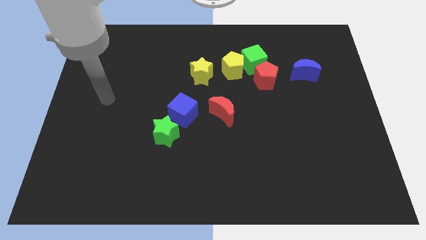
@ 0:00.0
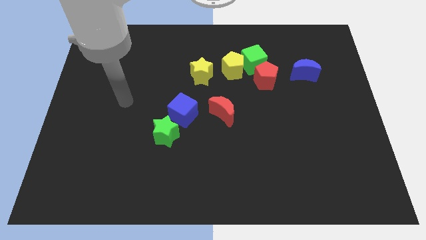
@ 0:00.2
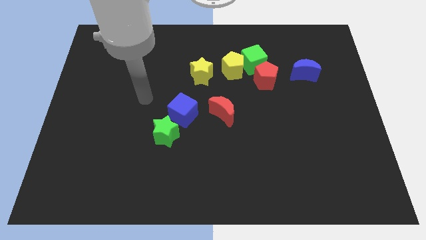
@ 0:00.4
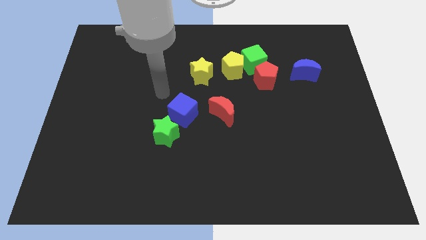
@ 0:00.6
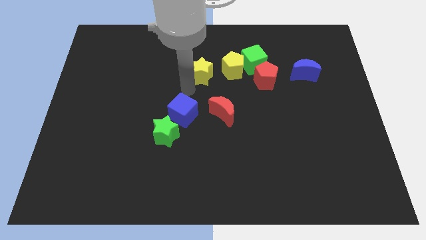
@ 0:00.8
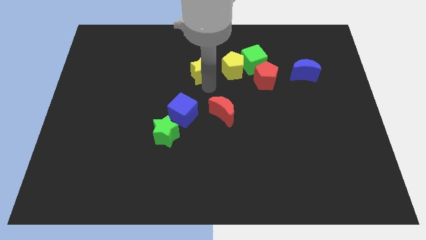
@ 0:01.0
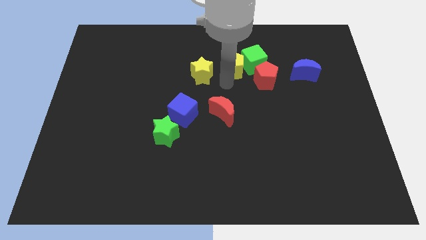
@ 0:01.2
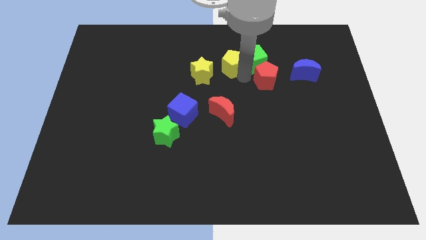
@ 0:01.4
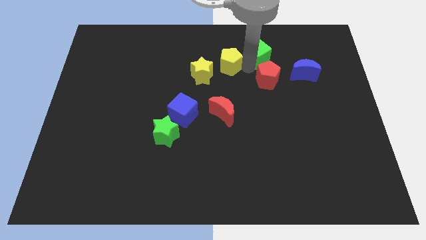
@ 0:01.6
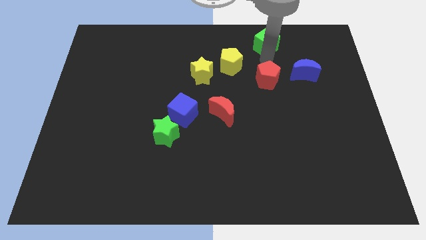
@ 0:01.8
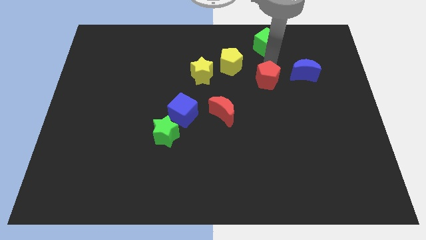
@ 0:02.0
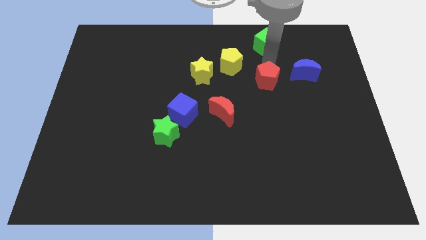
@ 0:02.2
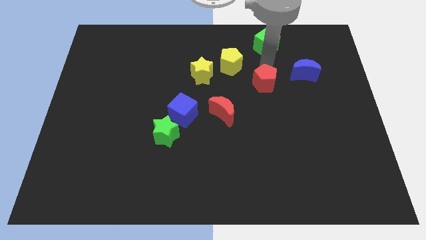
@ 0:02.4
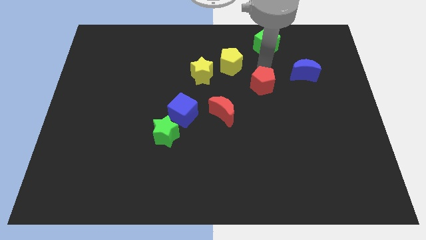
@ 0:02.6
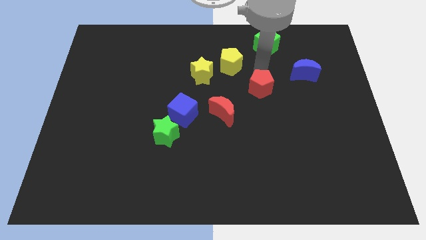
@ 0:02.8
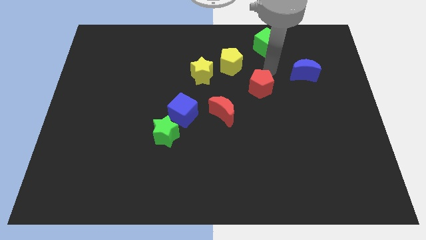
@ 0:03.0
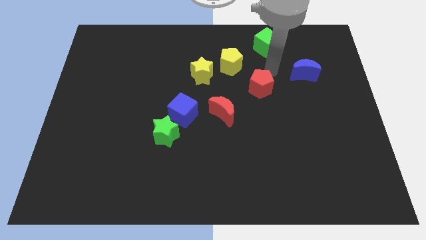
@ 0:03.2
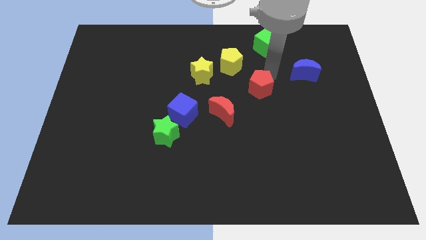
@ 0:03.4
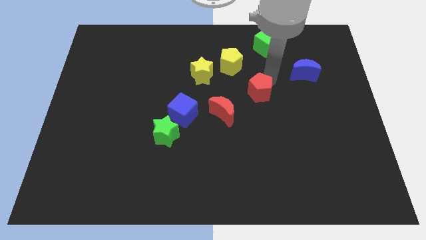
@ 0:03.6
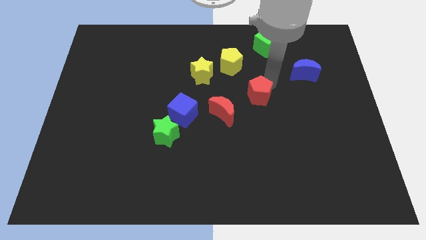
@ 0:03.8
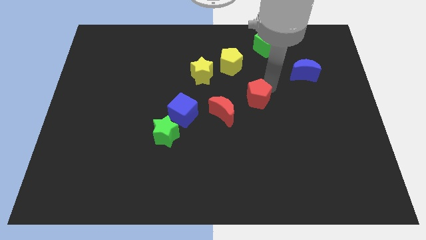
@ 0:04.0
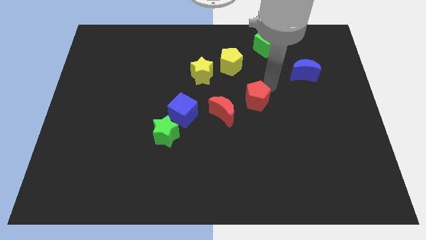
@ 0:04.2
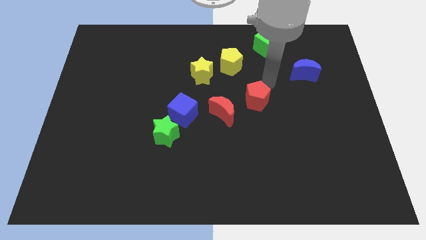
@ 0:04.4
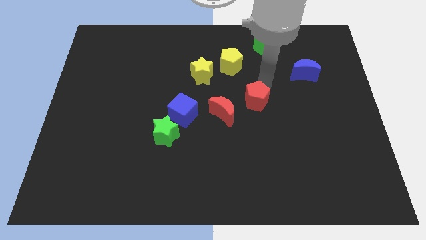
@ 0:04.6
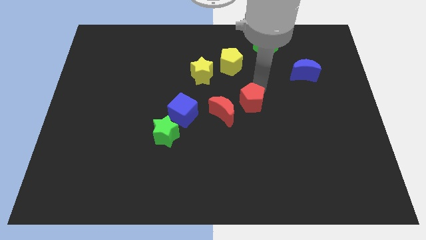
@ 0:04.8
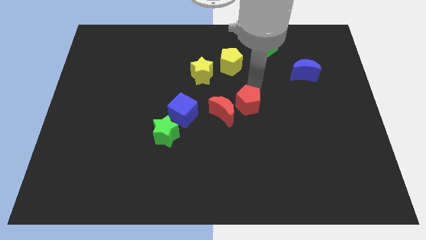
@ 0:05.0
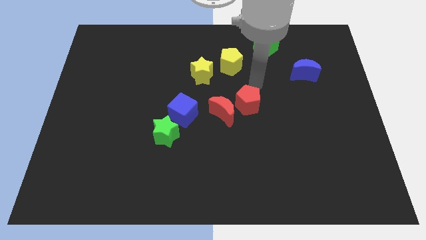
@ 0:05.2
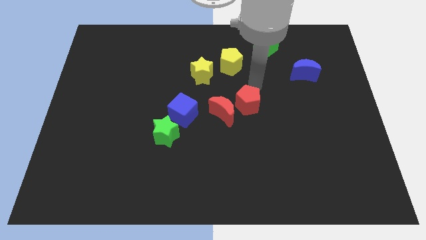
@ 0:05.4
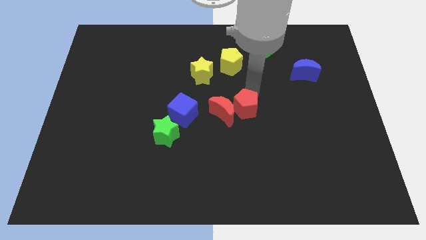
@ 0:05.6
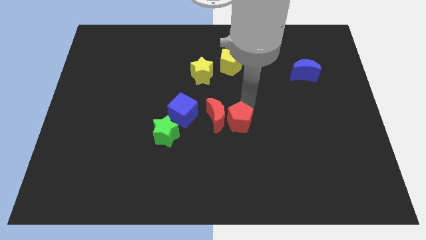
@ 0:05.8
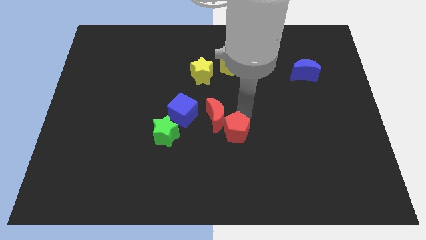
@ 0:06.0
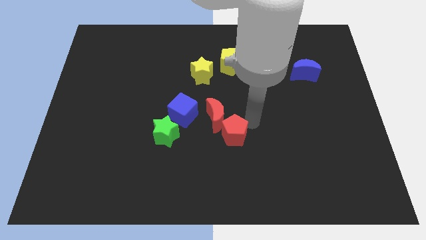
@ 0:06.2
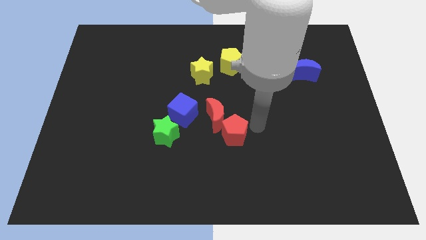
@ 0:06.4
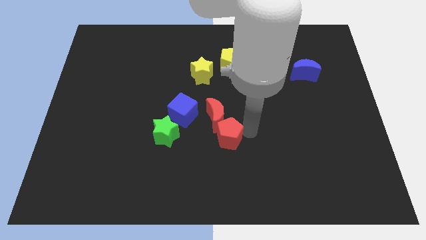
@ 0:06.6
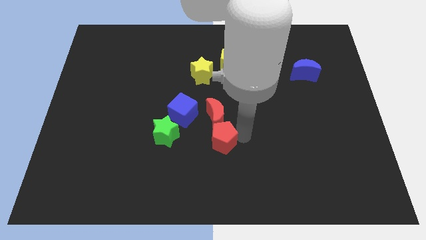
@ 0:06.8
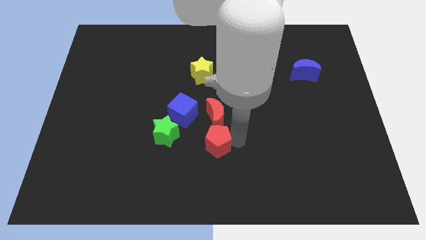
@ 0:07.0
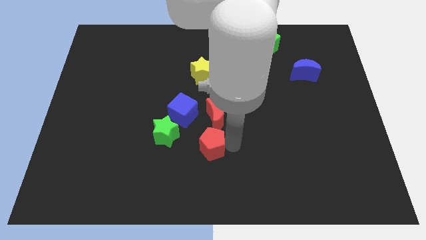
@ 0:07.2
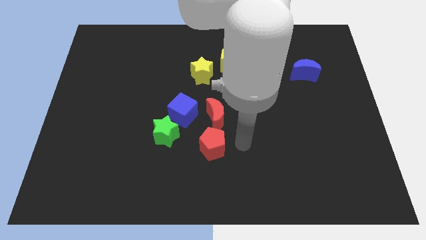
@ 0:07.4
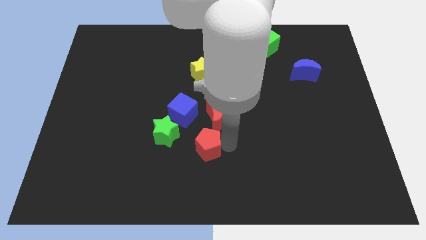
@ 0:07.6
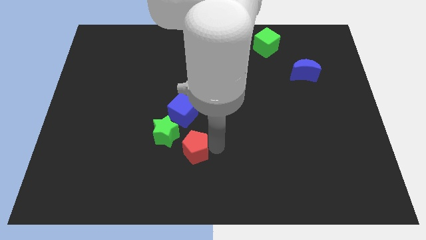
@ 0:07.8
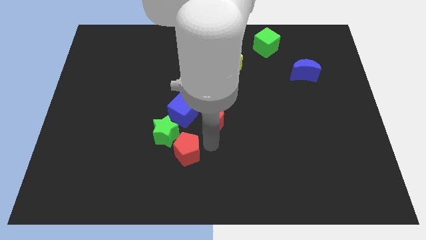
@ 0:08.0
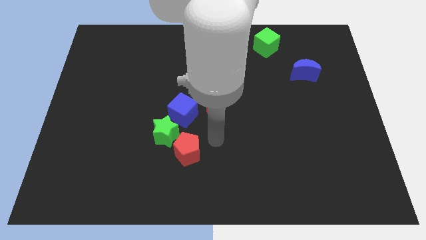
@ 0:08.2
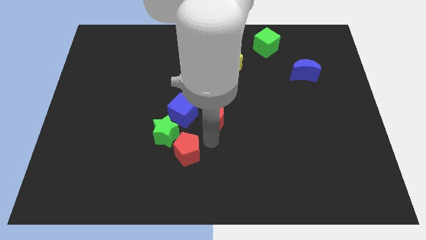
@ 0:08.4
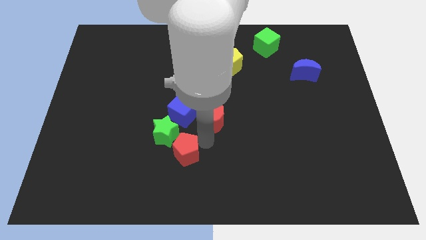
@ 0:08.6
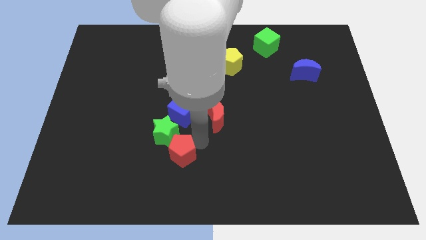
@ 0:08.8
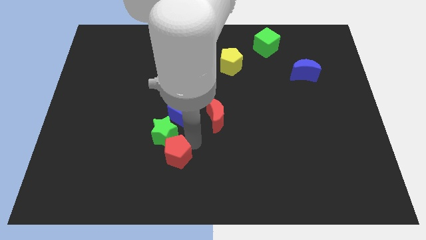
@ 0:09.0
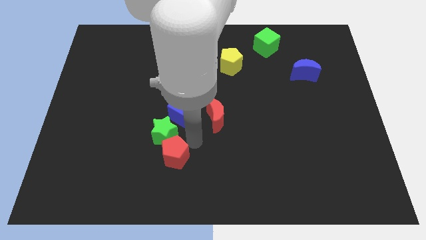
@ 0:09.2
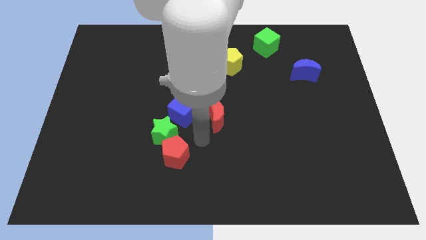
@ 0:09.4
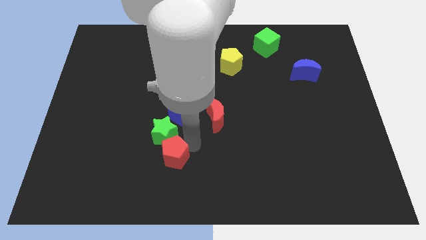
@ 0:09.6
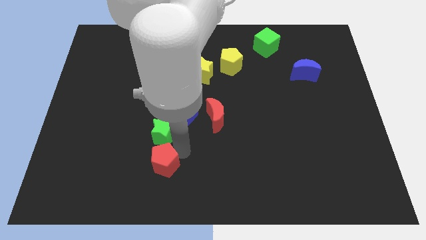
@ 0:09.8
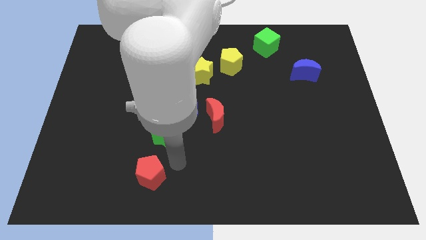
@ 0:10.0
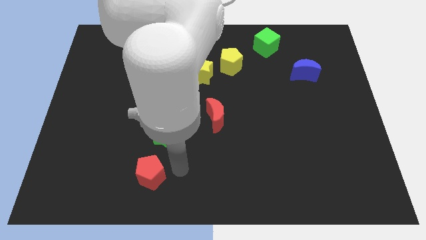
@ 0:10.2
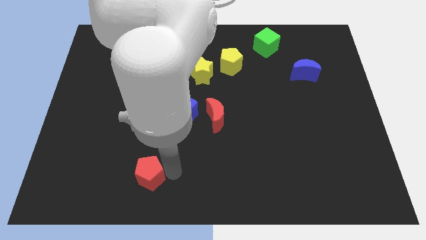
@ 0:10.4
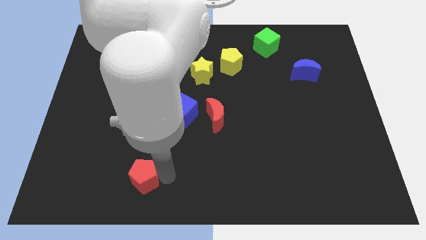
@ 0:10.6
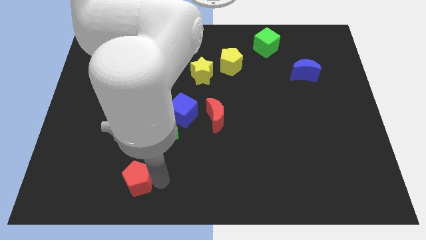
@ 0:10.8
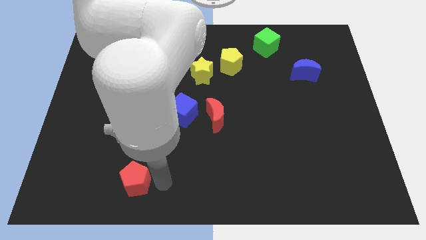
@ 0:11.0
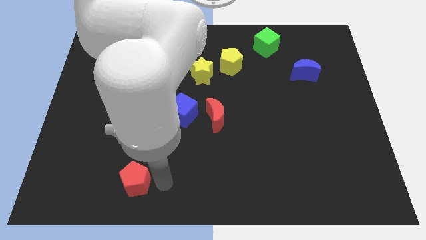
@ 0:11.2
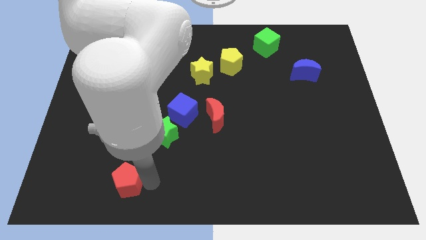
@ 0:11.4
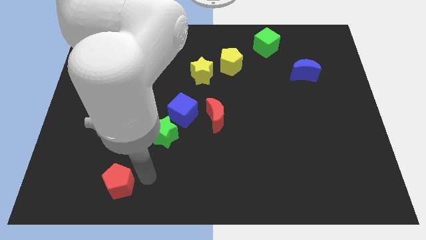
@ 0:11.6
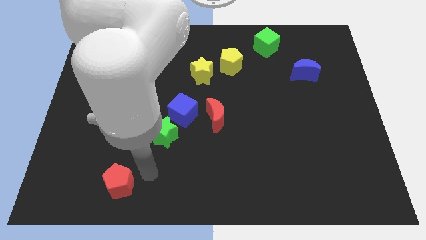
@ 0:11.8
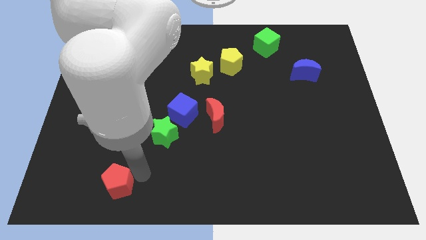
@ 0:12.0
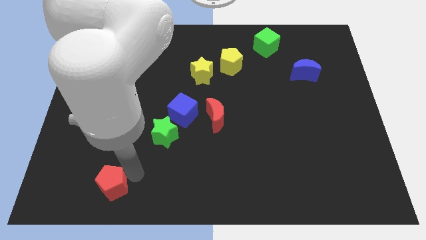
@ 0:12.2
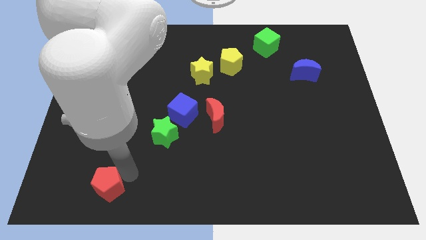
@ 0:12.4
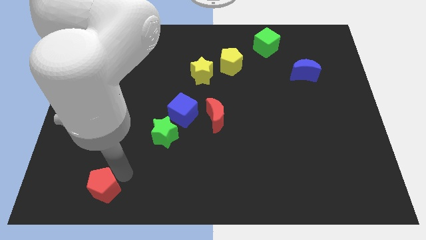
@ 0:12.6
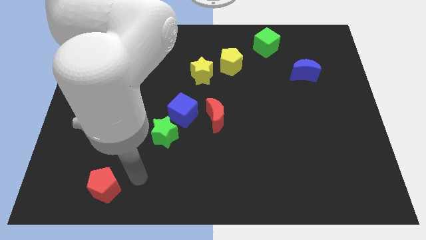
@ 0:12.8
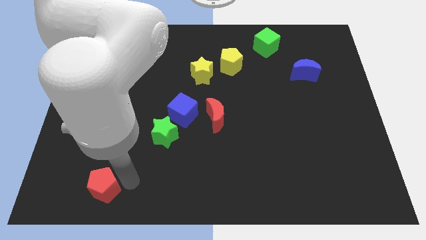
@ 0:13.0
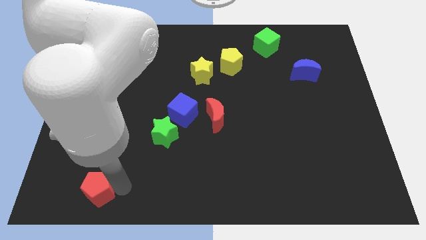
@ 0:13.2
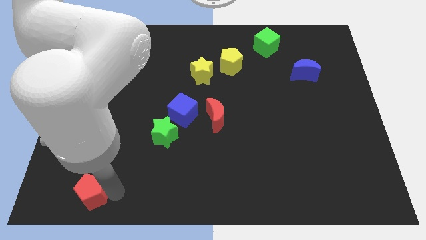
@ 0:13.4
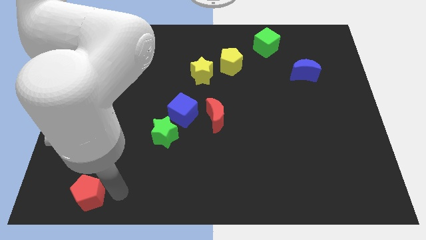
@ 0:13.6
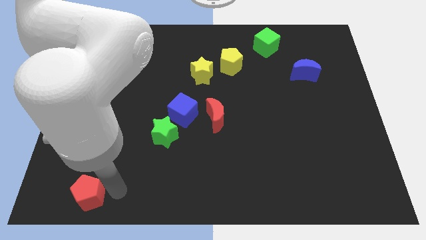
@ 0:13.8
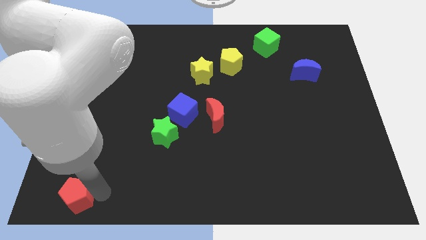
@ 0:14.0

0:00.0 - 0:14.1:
put the red pentagon to the lower left corner
